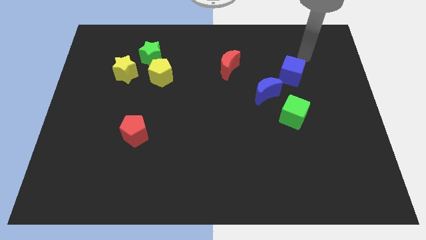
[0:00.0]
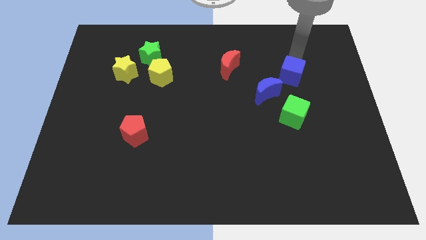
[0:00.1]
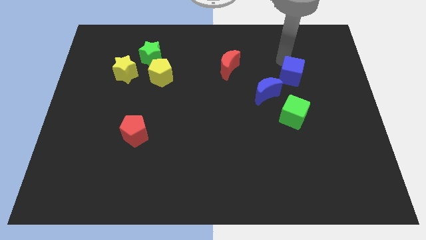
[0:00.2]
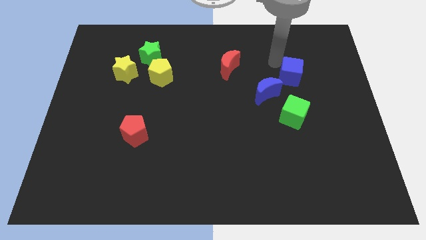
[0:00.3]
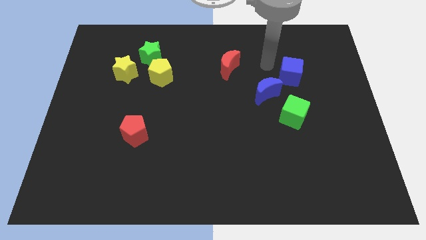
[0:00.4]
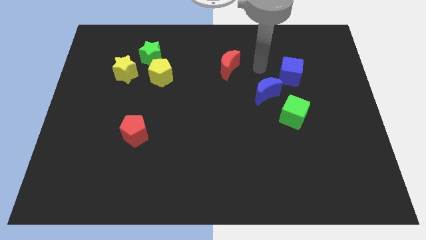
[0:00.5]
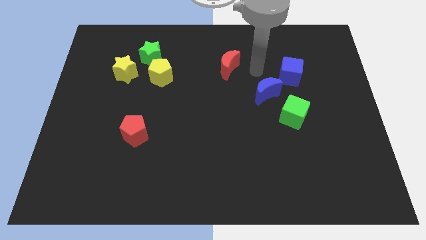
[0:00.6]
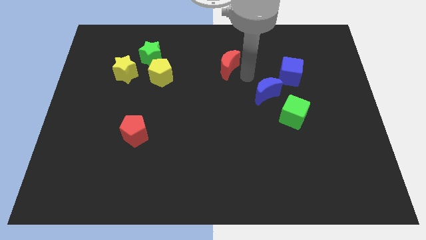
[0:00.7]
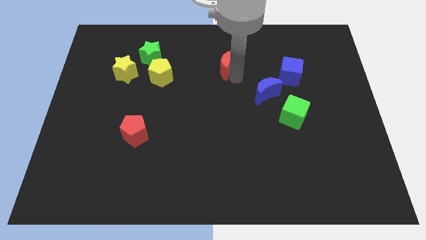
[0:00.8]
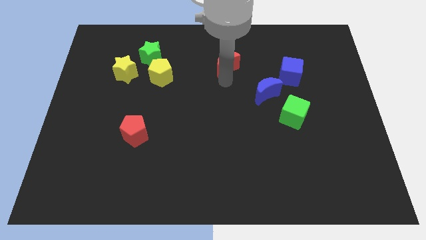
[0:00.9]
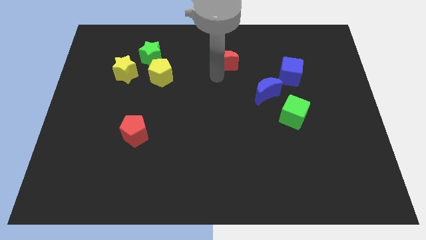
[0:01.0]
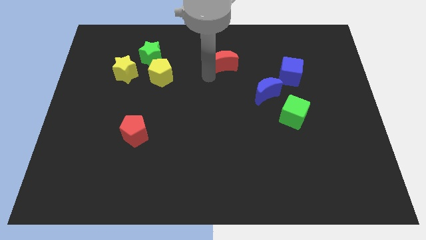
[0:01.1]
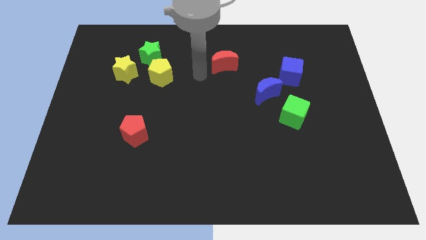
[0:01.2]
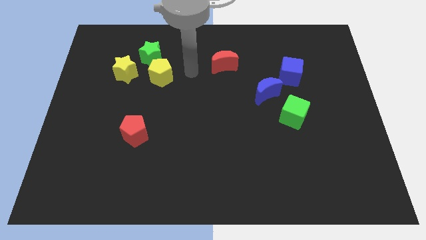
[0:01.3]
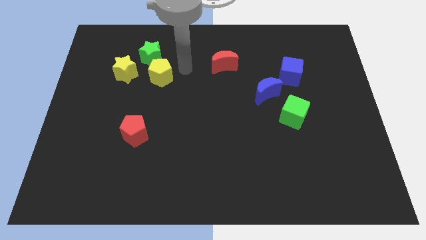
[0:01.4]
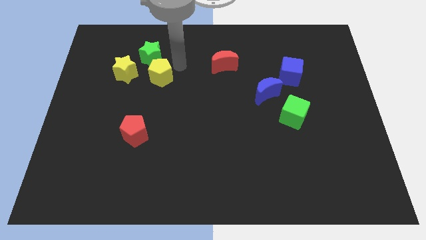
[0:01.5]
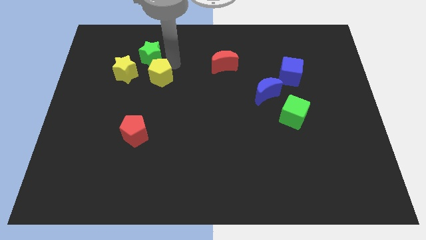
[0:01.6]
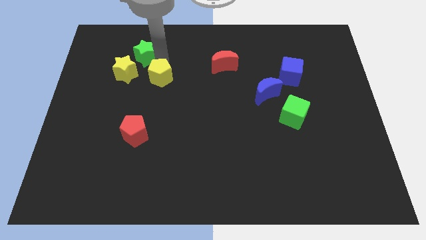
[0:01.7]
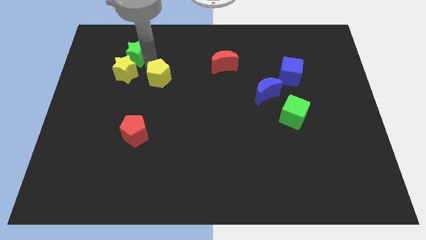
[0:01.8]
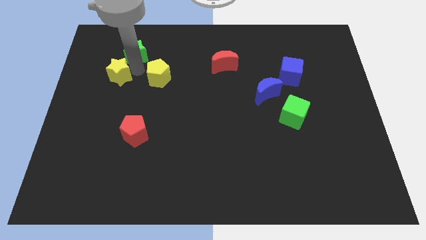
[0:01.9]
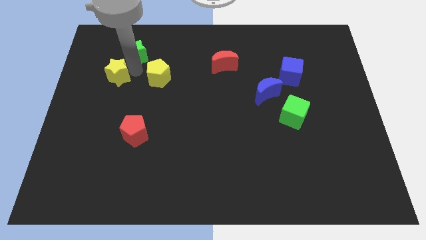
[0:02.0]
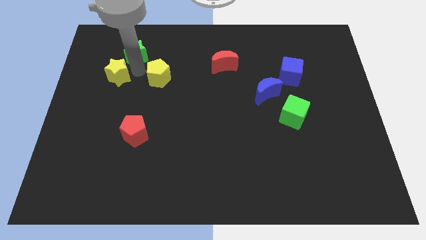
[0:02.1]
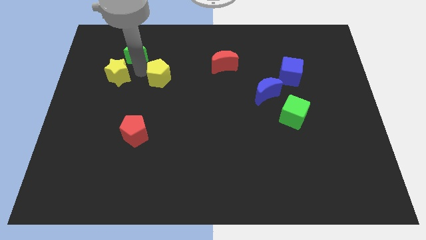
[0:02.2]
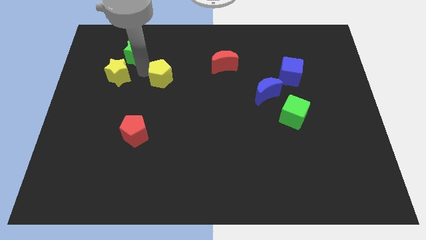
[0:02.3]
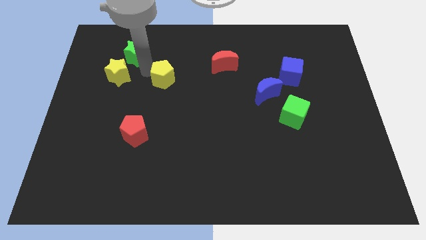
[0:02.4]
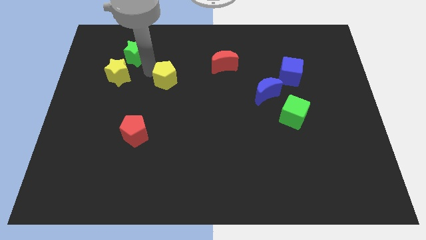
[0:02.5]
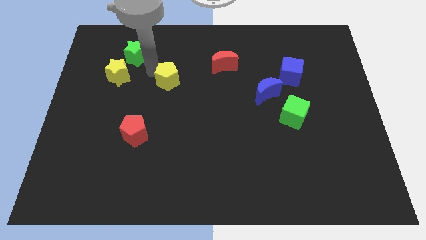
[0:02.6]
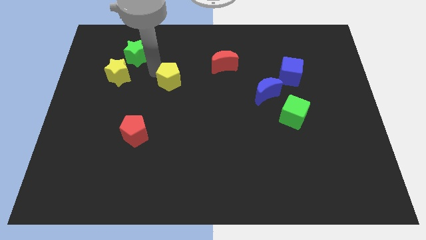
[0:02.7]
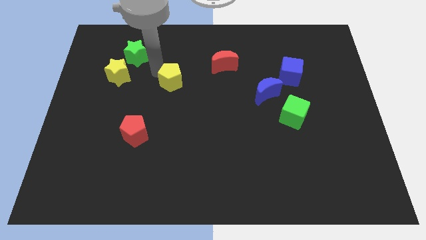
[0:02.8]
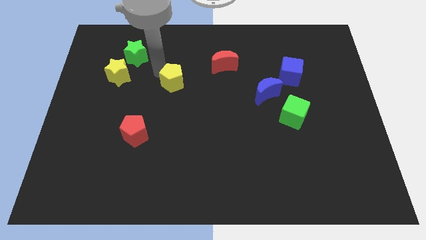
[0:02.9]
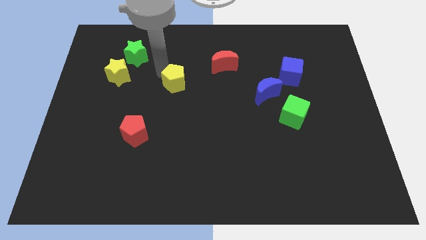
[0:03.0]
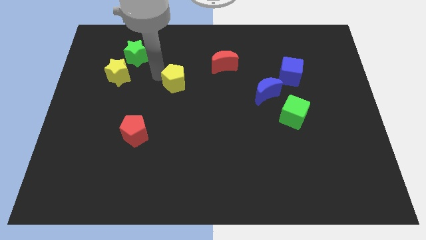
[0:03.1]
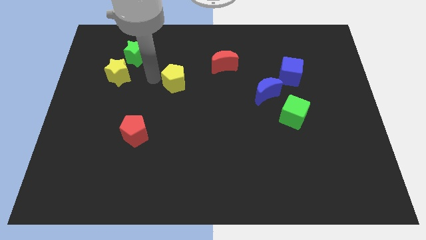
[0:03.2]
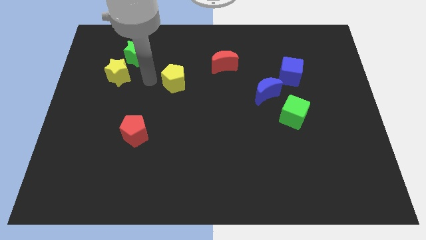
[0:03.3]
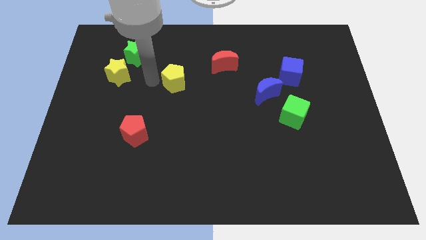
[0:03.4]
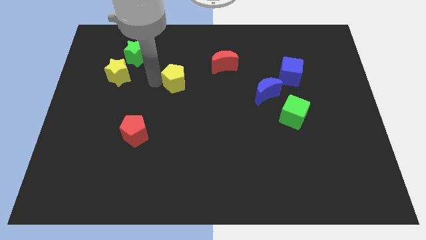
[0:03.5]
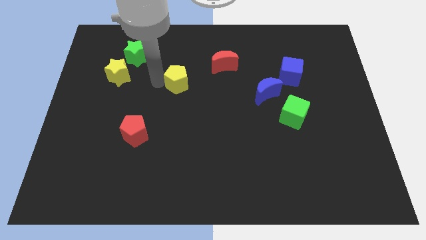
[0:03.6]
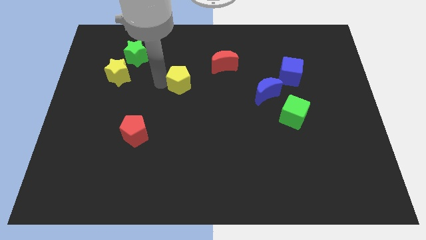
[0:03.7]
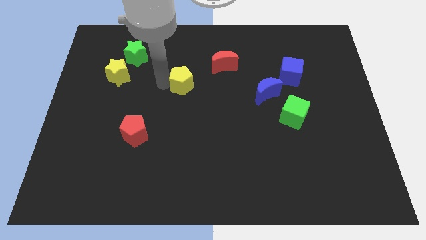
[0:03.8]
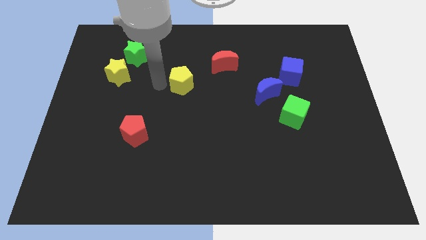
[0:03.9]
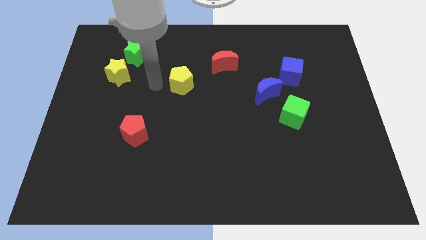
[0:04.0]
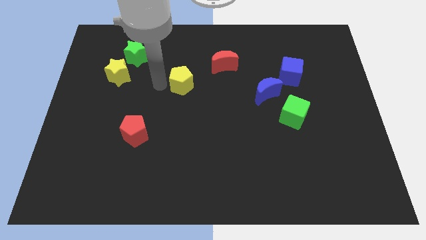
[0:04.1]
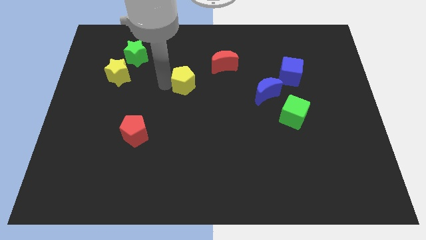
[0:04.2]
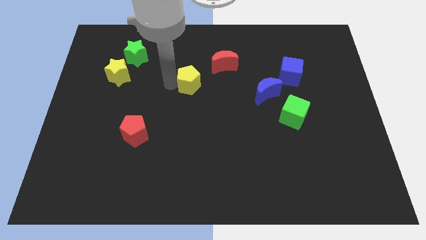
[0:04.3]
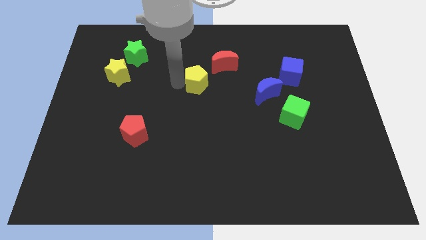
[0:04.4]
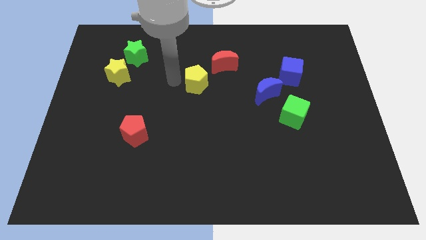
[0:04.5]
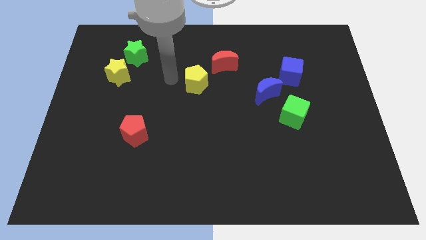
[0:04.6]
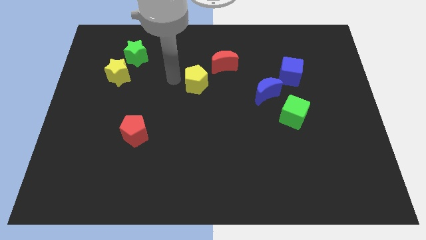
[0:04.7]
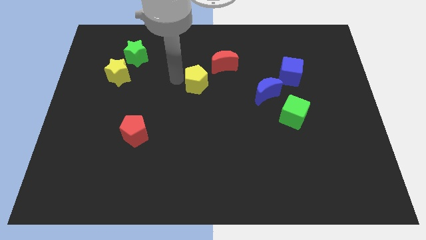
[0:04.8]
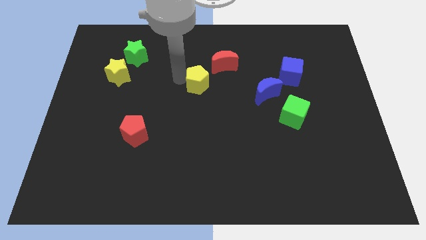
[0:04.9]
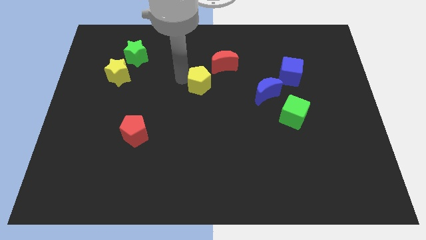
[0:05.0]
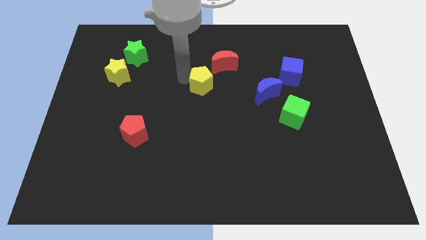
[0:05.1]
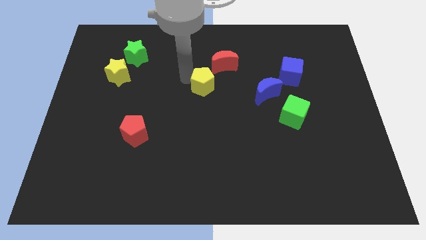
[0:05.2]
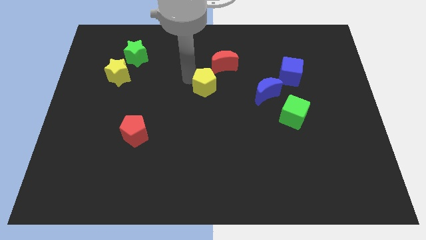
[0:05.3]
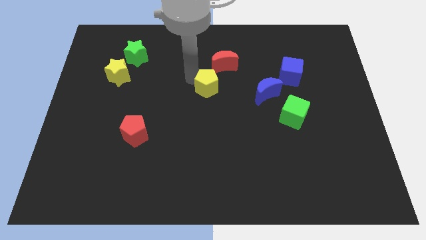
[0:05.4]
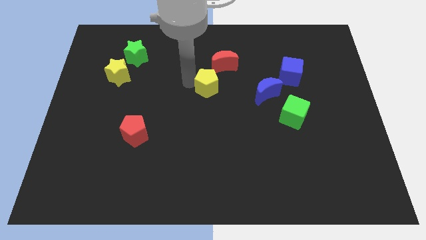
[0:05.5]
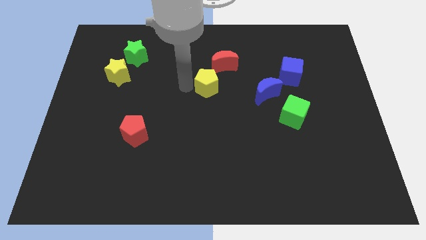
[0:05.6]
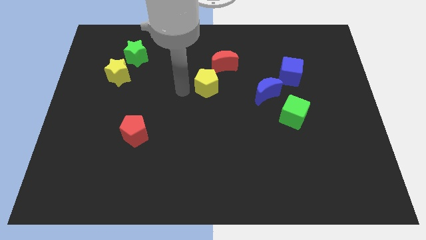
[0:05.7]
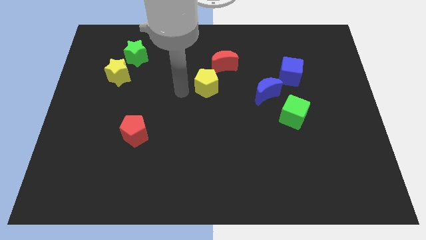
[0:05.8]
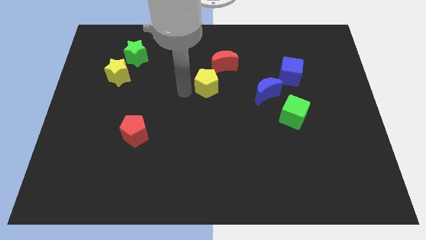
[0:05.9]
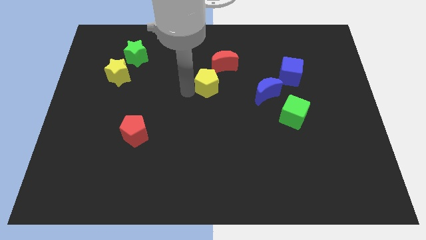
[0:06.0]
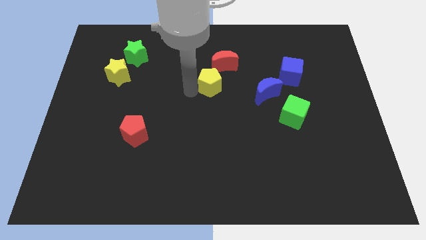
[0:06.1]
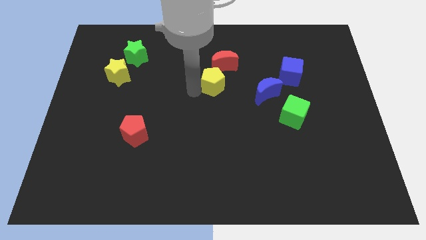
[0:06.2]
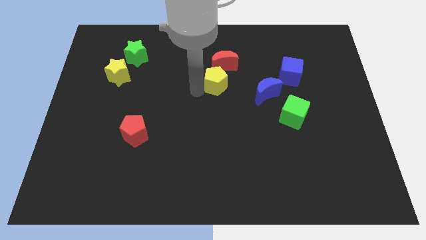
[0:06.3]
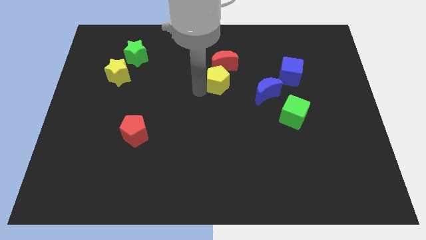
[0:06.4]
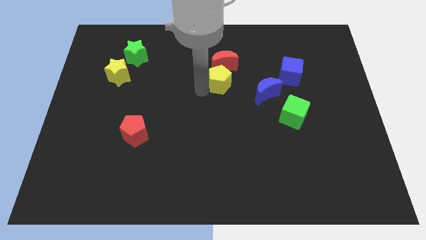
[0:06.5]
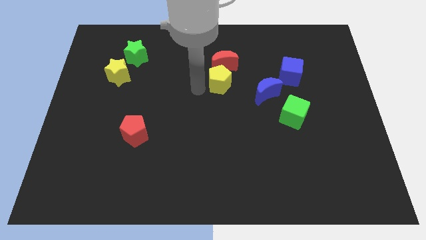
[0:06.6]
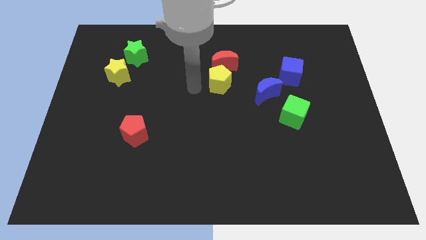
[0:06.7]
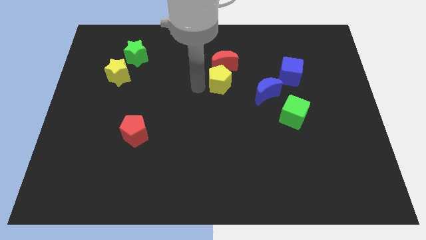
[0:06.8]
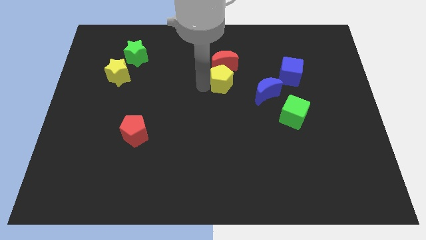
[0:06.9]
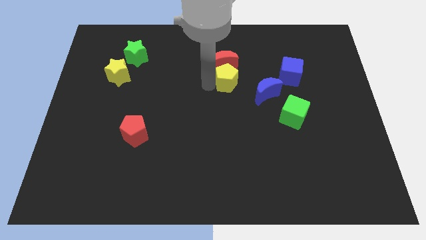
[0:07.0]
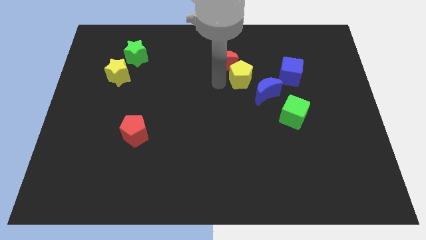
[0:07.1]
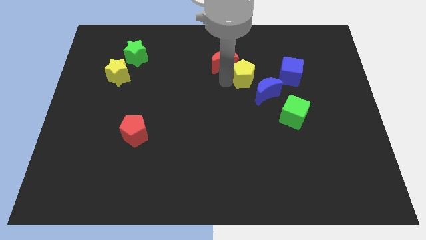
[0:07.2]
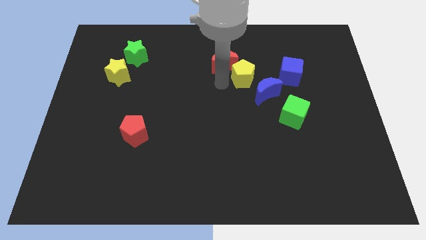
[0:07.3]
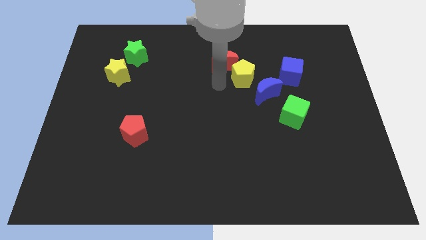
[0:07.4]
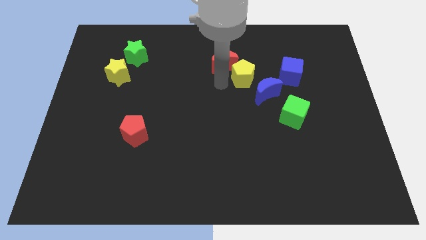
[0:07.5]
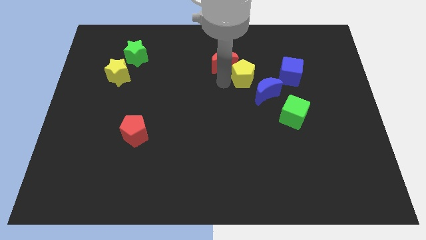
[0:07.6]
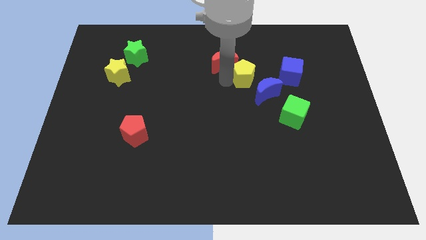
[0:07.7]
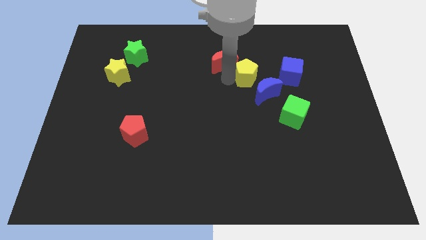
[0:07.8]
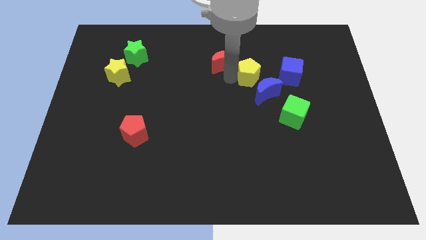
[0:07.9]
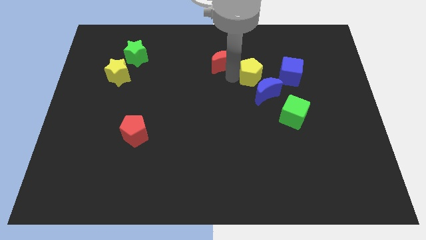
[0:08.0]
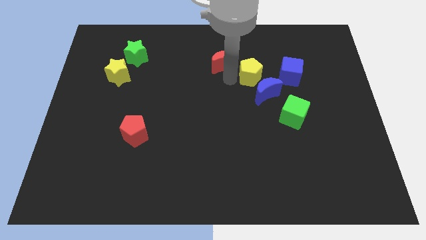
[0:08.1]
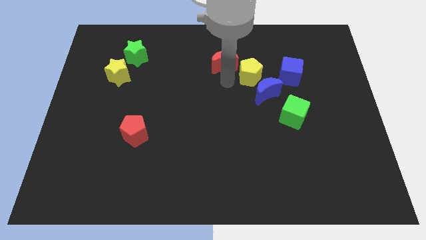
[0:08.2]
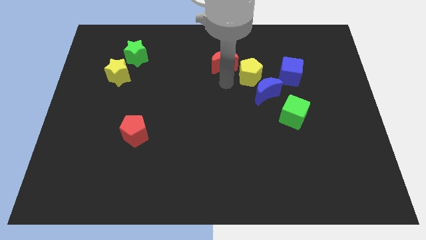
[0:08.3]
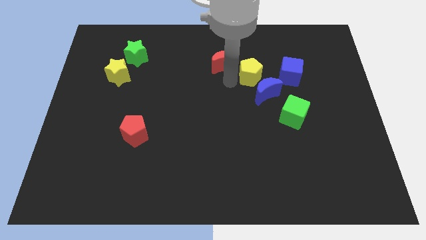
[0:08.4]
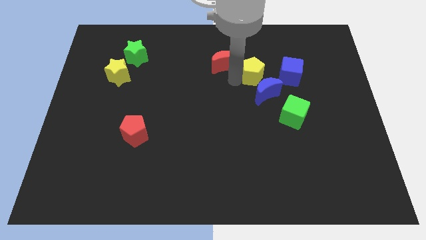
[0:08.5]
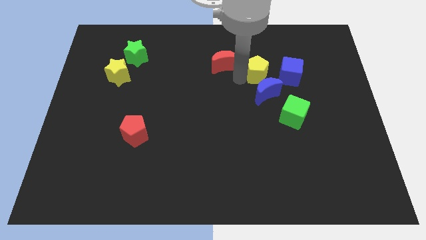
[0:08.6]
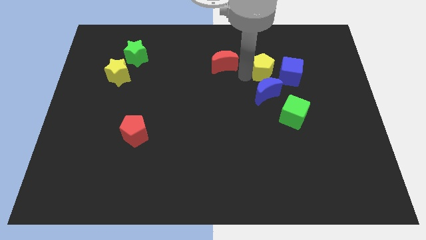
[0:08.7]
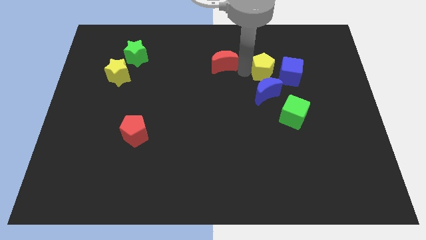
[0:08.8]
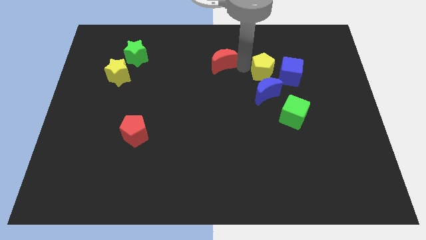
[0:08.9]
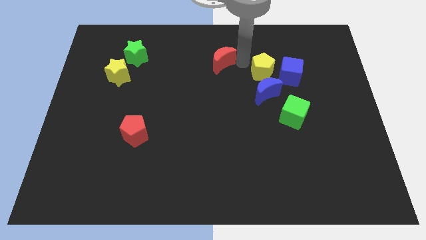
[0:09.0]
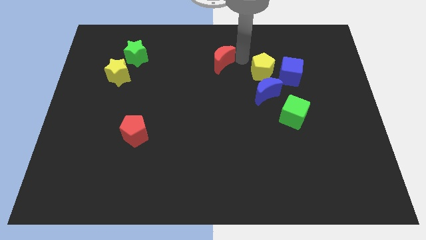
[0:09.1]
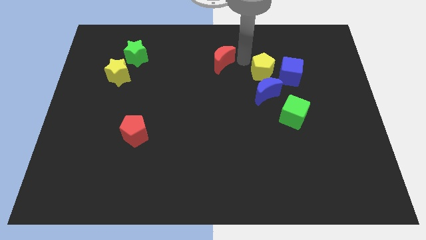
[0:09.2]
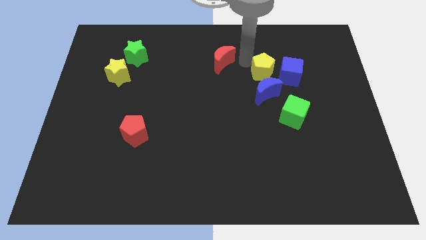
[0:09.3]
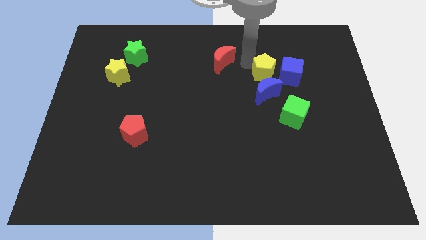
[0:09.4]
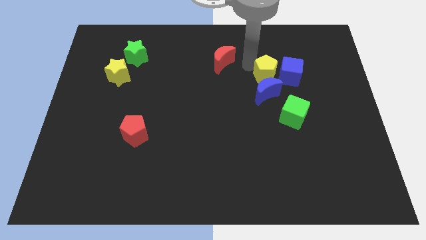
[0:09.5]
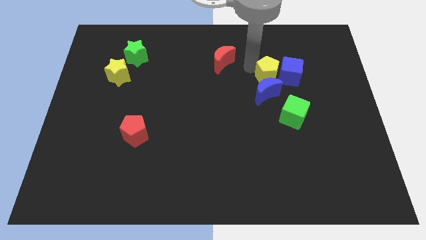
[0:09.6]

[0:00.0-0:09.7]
move the yellow pentagon next to the blue cube
